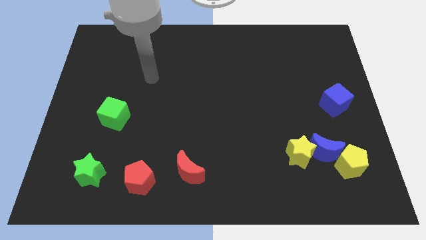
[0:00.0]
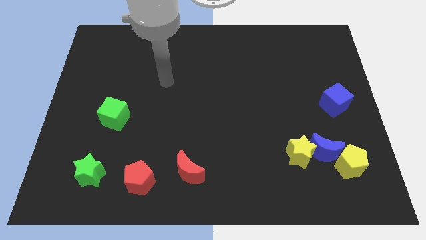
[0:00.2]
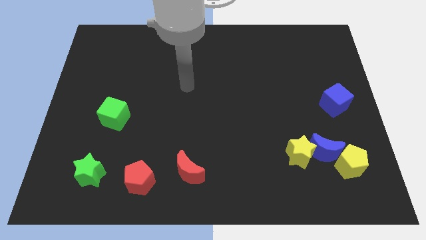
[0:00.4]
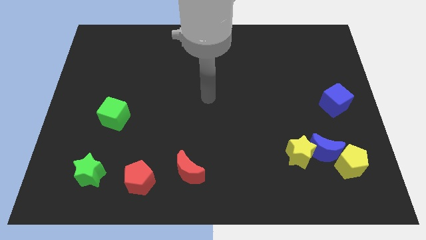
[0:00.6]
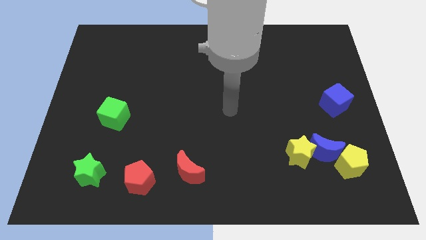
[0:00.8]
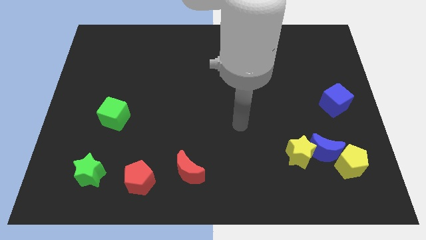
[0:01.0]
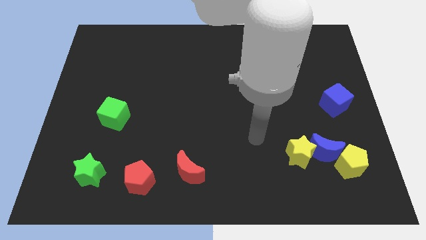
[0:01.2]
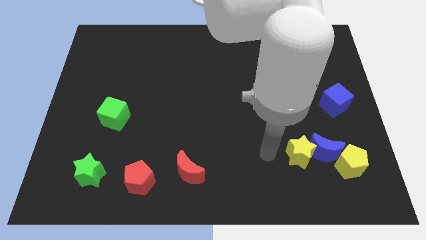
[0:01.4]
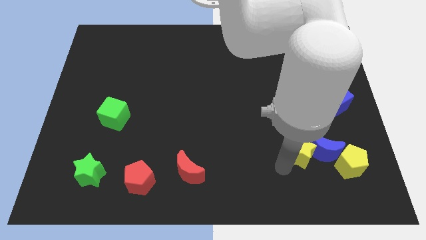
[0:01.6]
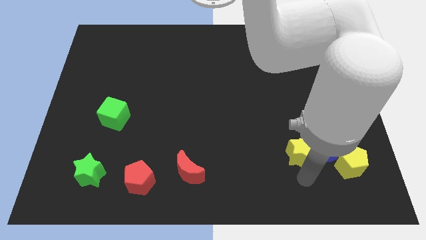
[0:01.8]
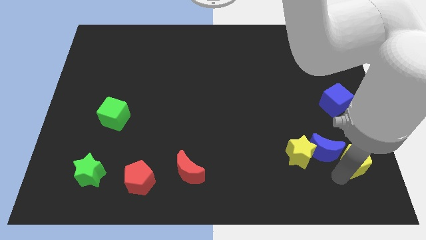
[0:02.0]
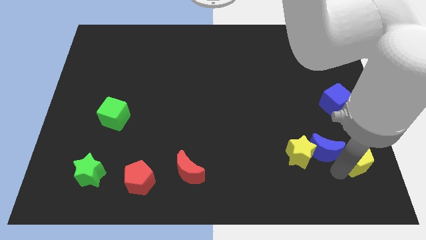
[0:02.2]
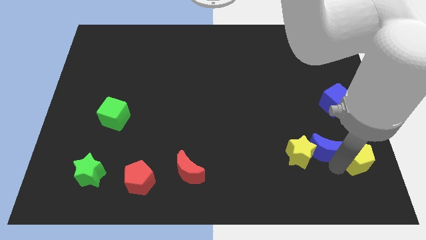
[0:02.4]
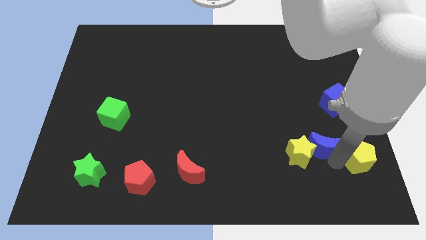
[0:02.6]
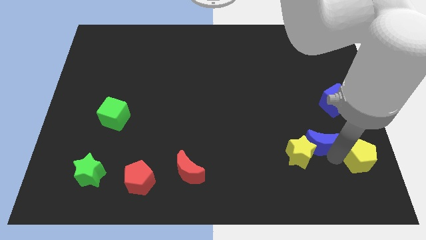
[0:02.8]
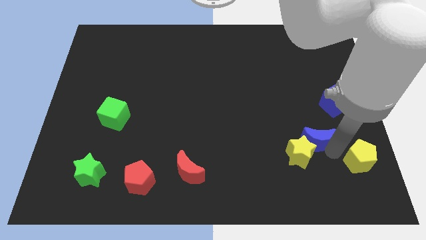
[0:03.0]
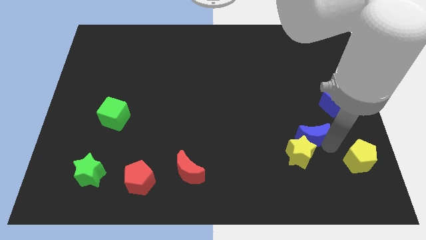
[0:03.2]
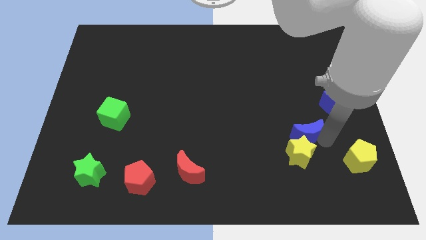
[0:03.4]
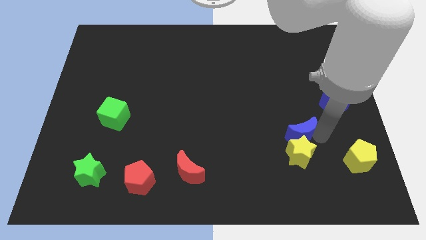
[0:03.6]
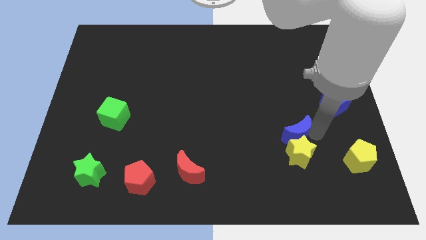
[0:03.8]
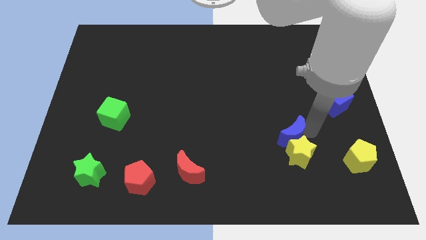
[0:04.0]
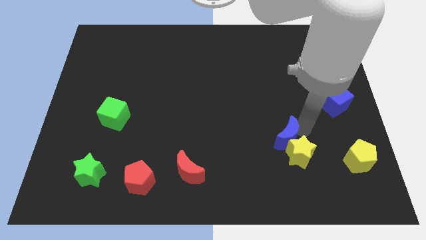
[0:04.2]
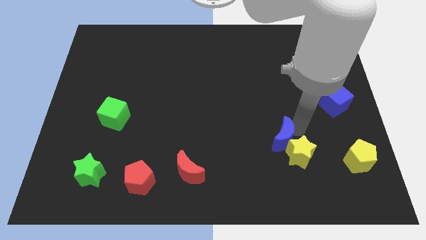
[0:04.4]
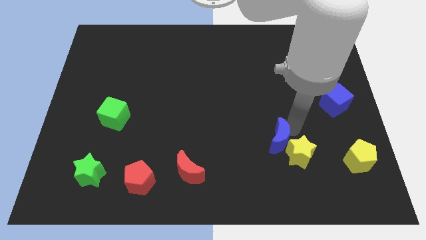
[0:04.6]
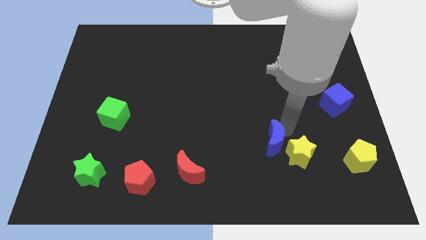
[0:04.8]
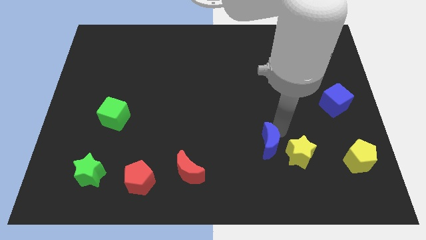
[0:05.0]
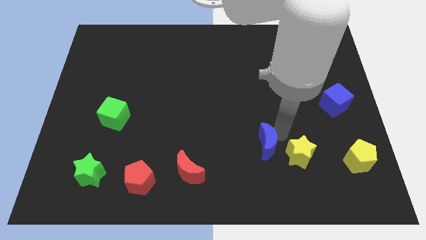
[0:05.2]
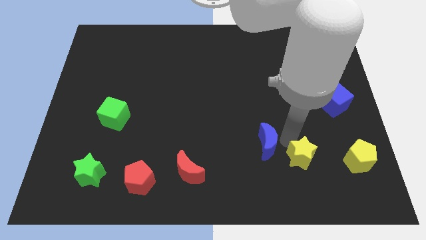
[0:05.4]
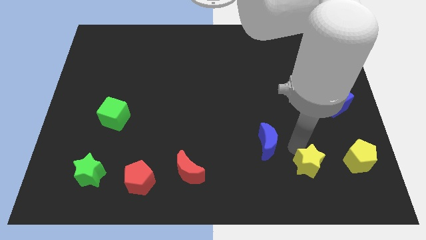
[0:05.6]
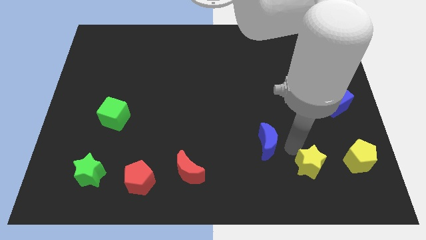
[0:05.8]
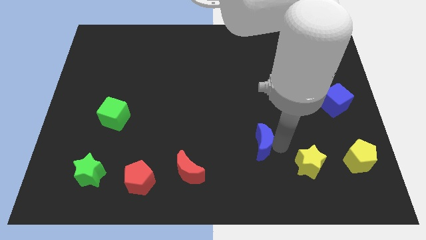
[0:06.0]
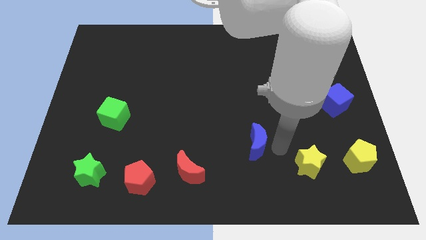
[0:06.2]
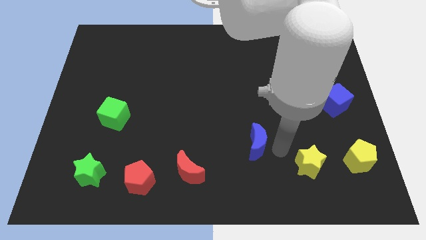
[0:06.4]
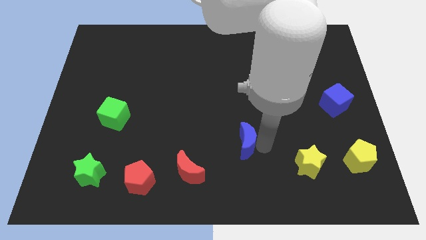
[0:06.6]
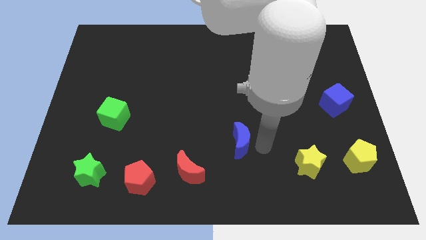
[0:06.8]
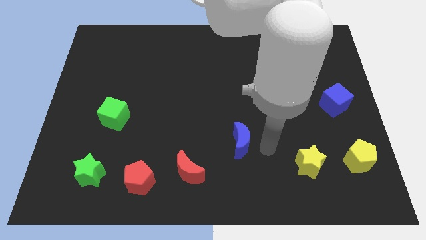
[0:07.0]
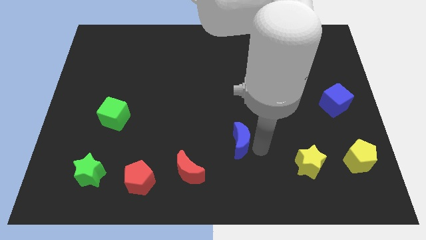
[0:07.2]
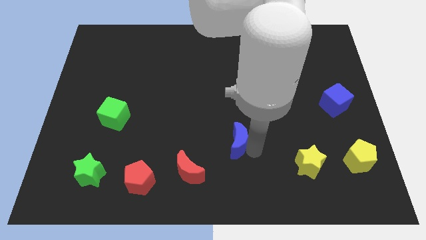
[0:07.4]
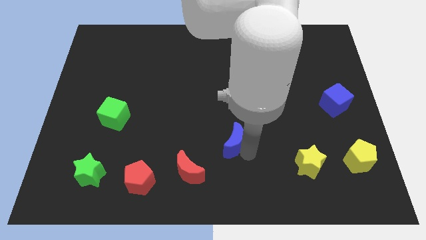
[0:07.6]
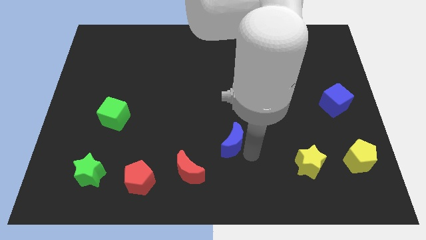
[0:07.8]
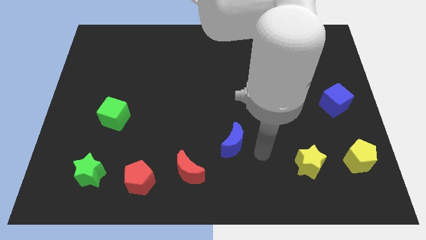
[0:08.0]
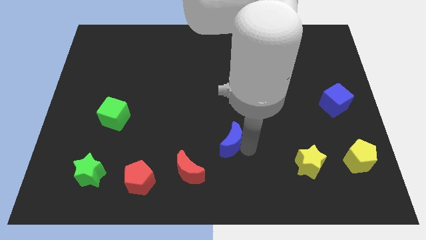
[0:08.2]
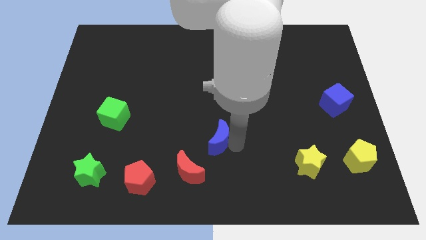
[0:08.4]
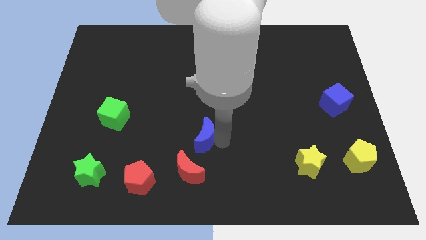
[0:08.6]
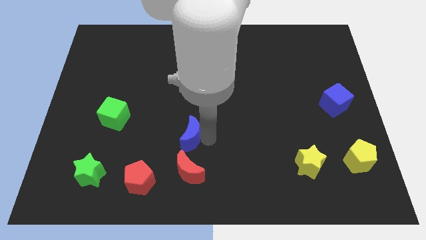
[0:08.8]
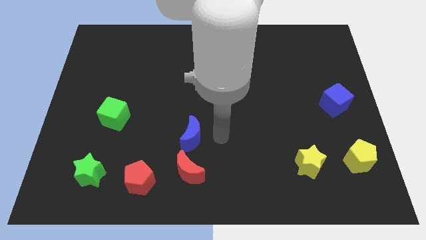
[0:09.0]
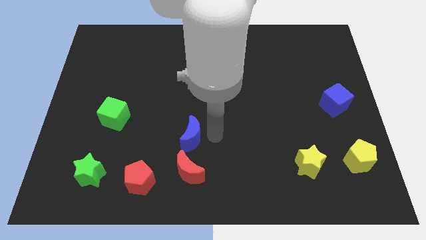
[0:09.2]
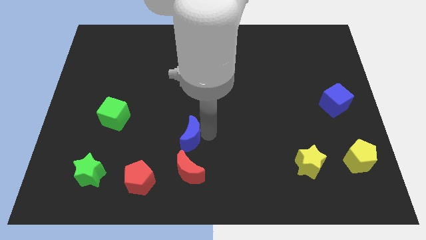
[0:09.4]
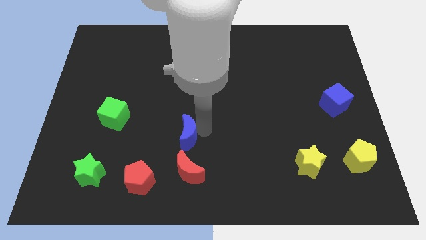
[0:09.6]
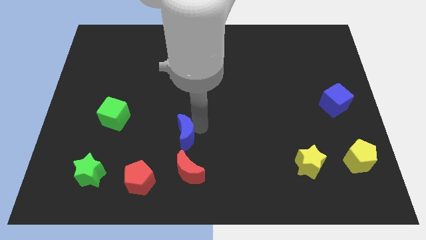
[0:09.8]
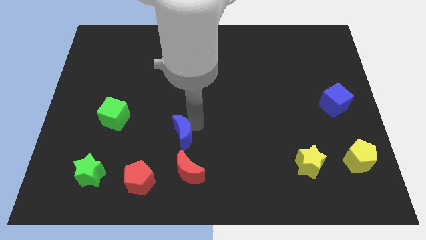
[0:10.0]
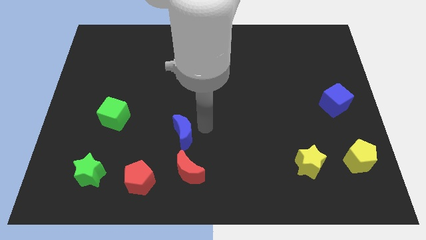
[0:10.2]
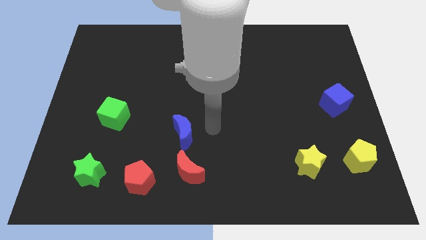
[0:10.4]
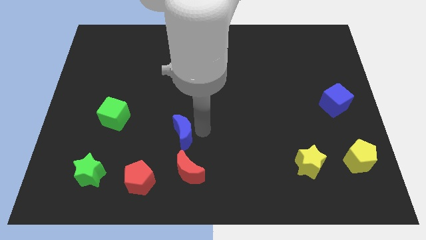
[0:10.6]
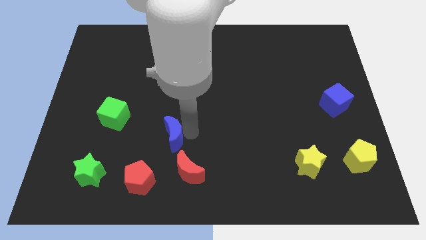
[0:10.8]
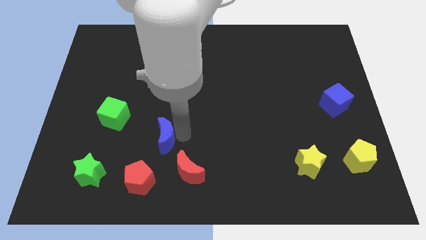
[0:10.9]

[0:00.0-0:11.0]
put the blue moon above the red pentagon

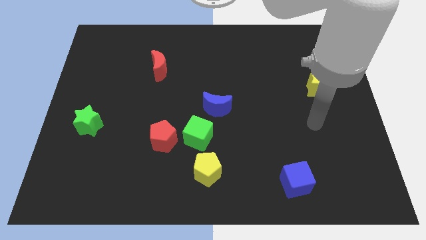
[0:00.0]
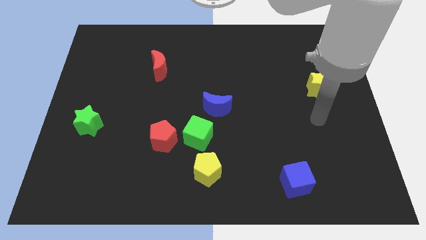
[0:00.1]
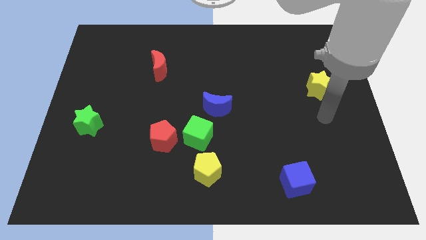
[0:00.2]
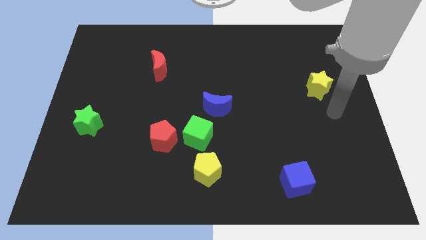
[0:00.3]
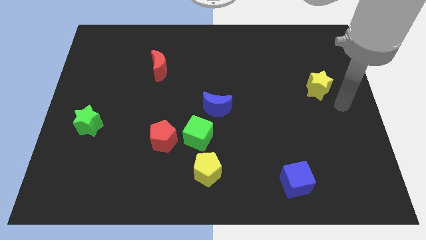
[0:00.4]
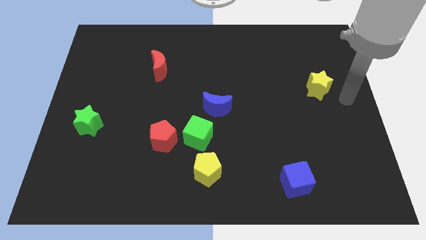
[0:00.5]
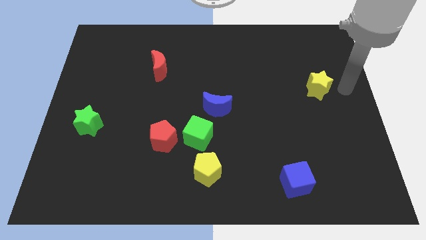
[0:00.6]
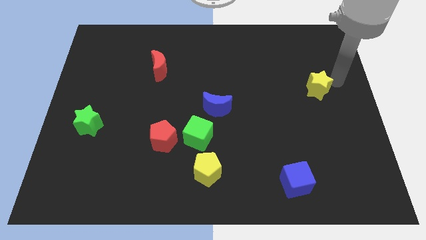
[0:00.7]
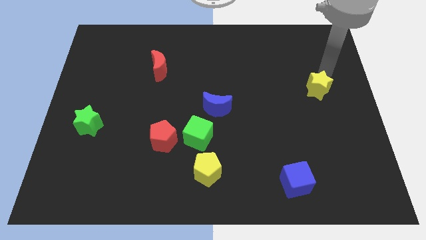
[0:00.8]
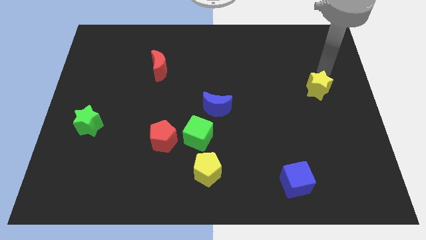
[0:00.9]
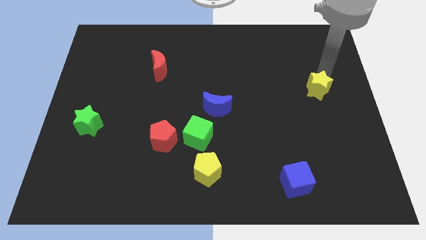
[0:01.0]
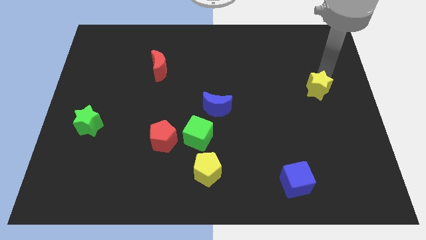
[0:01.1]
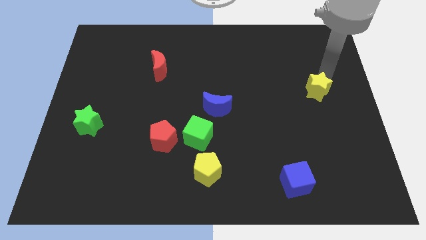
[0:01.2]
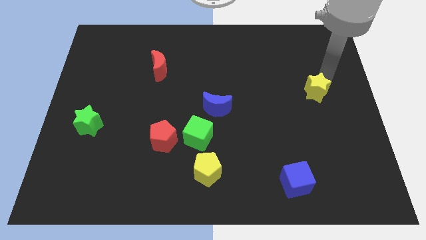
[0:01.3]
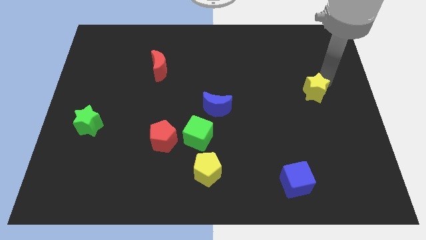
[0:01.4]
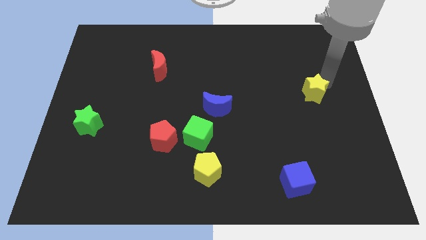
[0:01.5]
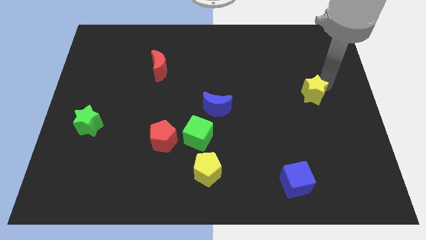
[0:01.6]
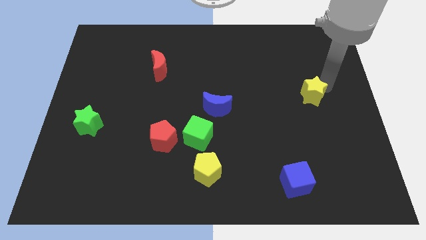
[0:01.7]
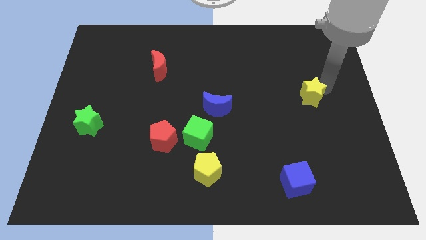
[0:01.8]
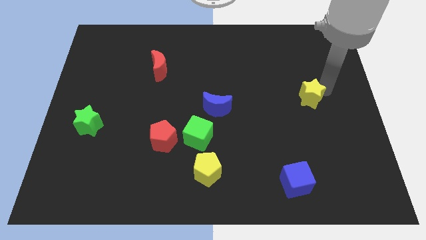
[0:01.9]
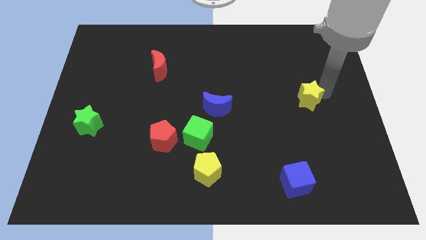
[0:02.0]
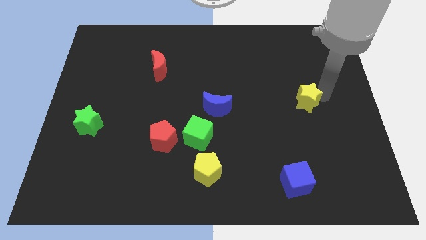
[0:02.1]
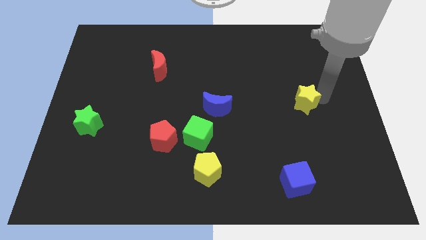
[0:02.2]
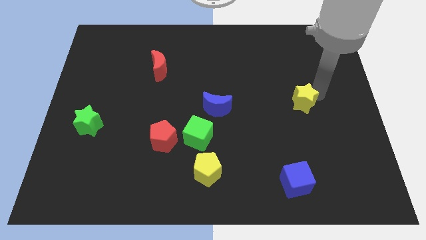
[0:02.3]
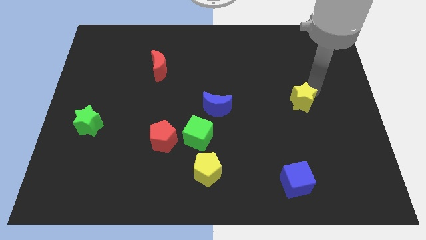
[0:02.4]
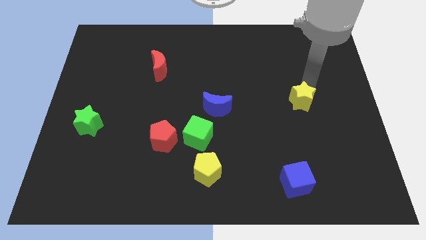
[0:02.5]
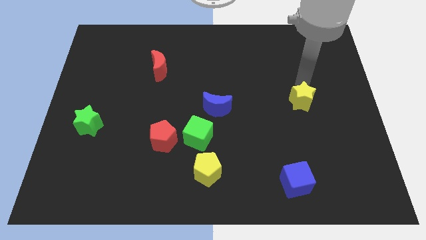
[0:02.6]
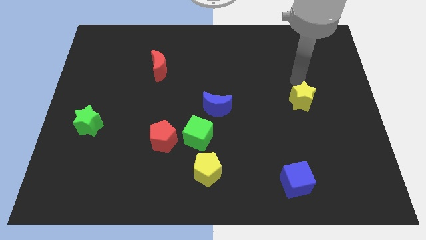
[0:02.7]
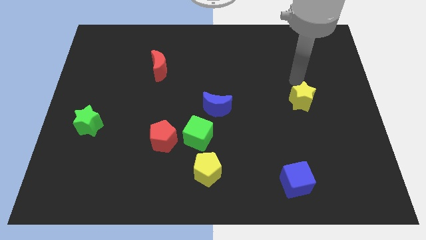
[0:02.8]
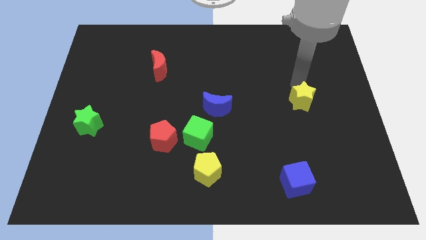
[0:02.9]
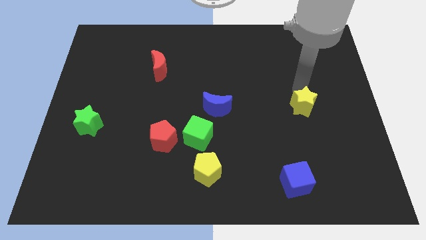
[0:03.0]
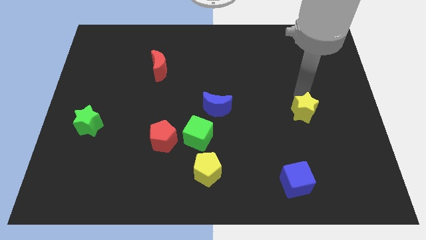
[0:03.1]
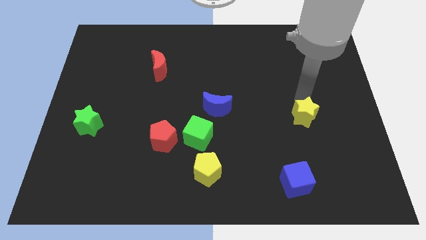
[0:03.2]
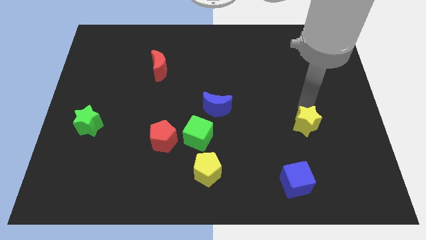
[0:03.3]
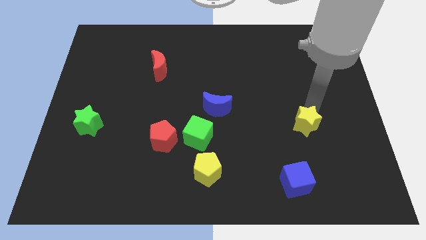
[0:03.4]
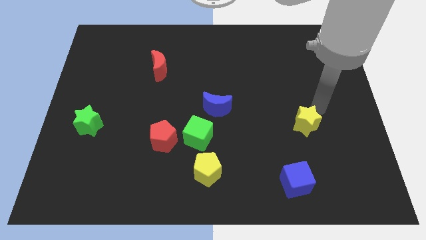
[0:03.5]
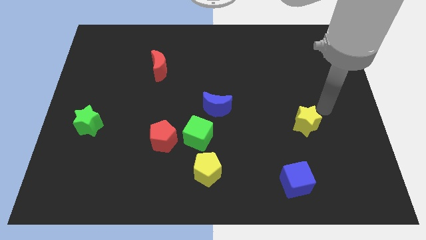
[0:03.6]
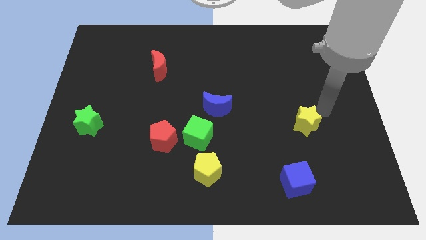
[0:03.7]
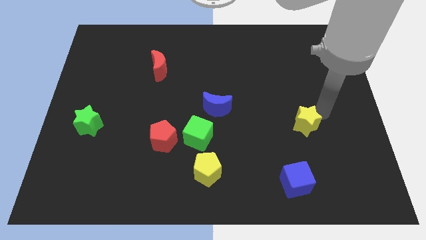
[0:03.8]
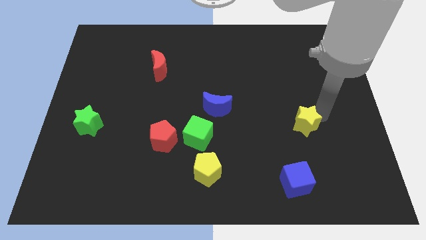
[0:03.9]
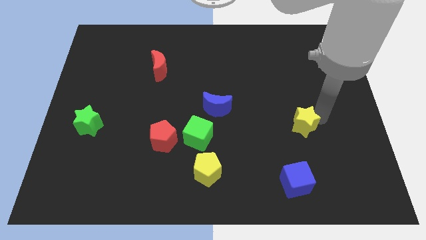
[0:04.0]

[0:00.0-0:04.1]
push the yellow star to the top side of the blue cube
